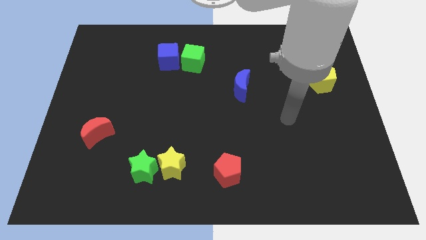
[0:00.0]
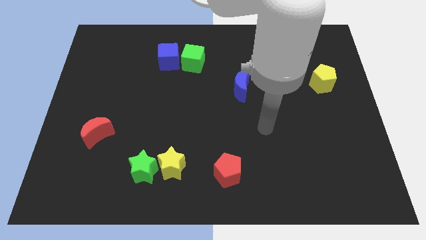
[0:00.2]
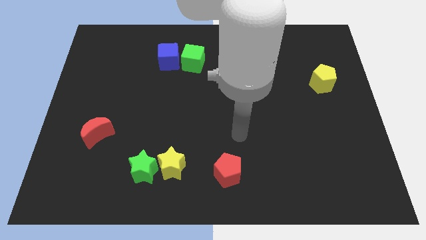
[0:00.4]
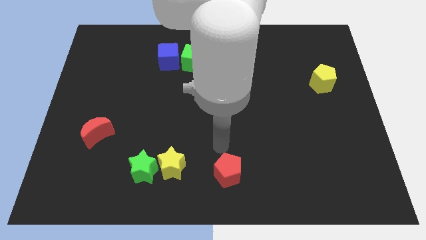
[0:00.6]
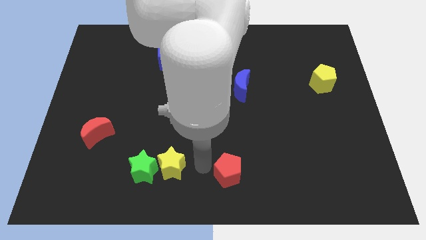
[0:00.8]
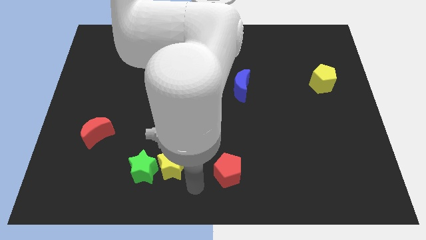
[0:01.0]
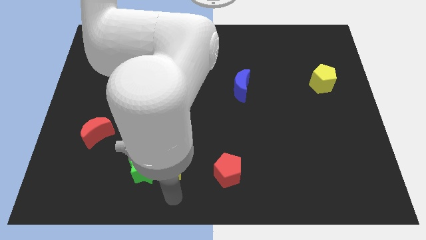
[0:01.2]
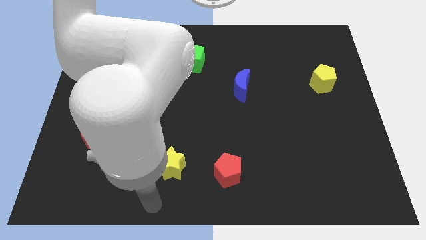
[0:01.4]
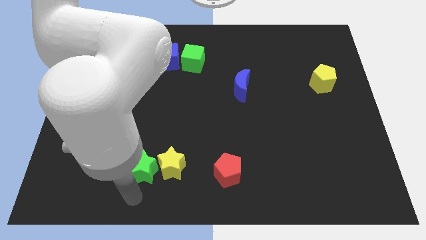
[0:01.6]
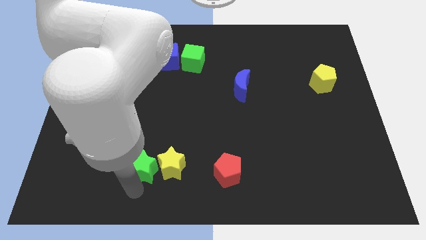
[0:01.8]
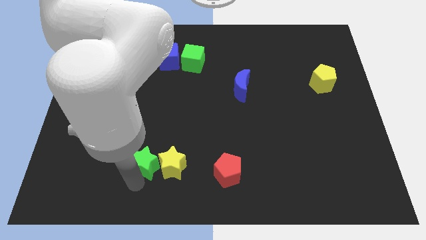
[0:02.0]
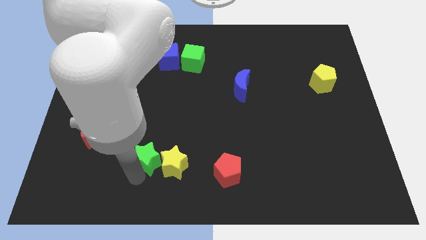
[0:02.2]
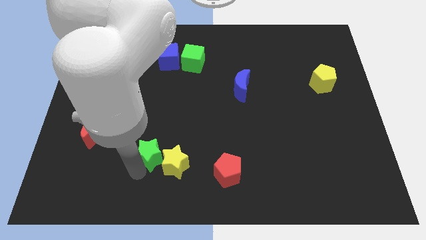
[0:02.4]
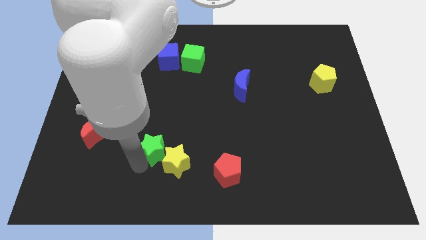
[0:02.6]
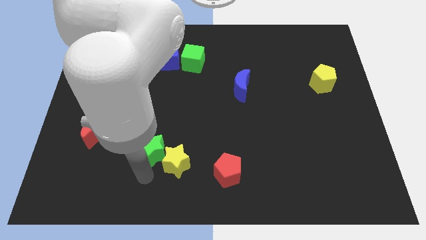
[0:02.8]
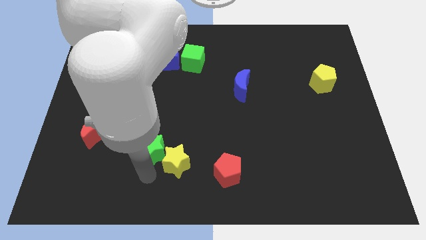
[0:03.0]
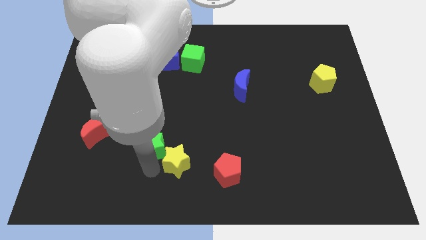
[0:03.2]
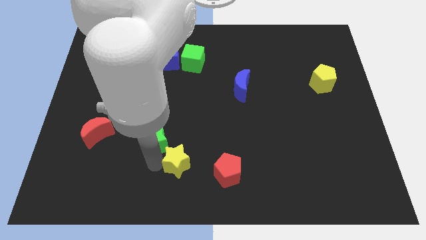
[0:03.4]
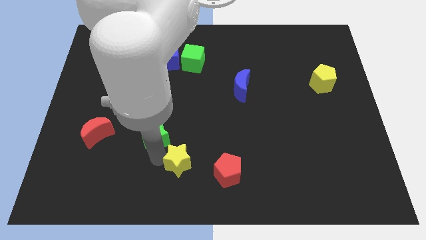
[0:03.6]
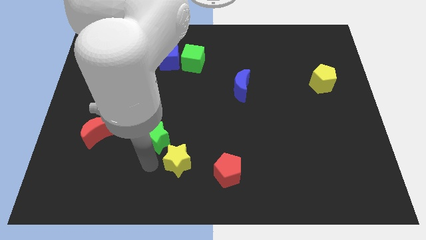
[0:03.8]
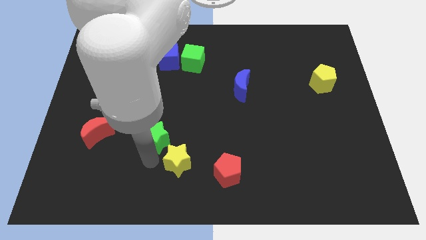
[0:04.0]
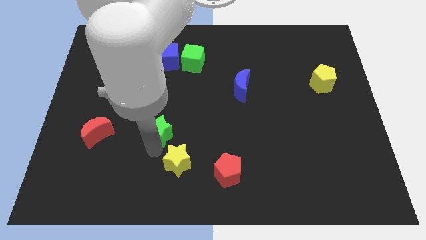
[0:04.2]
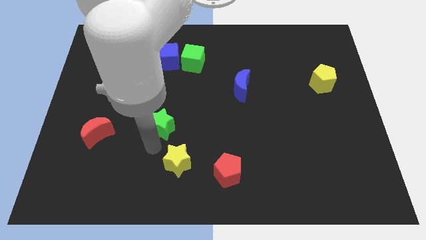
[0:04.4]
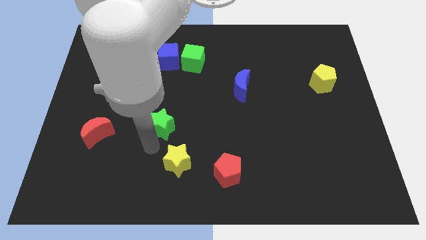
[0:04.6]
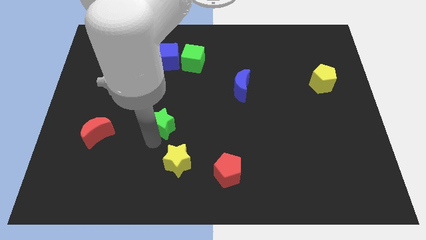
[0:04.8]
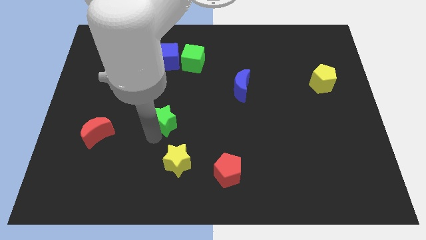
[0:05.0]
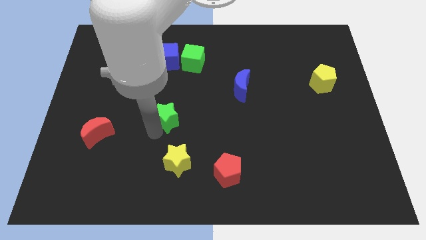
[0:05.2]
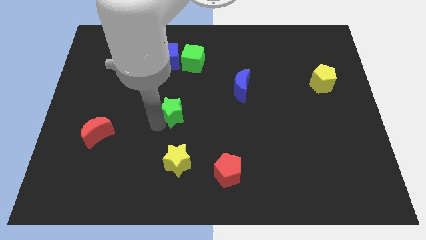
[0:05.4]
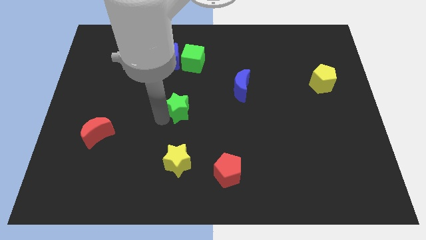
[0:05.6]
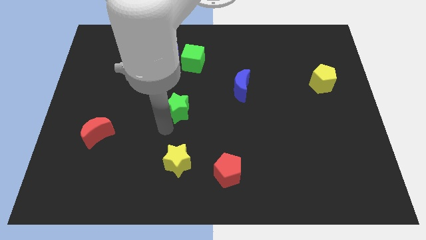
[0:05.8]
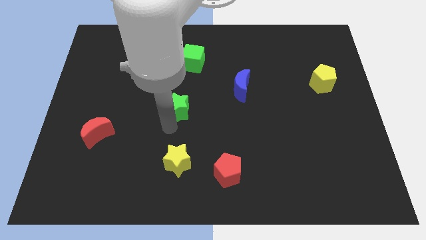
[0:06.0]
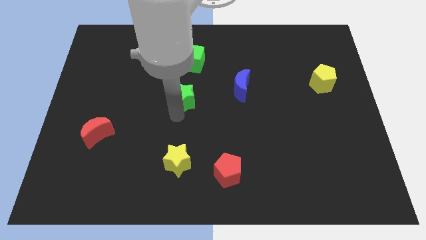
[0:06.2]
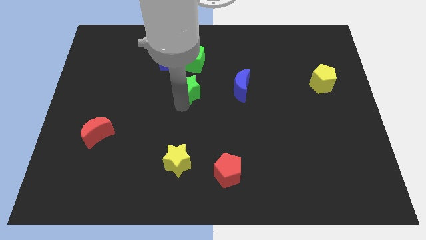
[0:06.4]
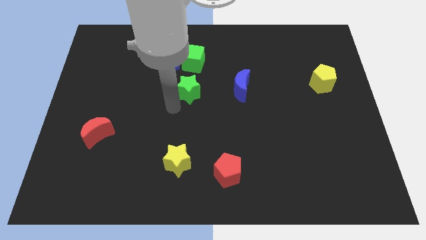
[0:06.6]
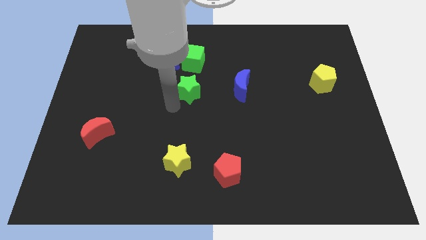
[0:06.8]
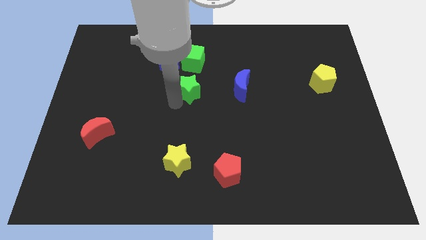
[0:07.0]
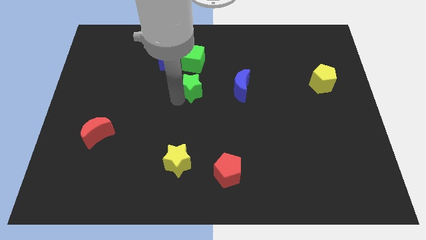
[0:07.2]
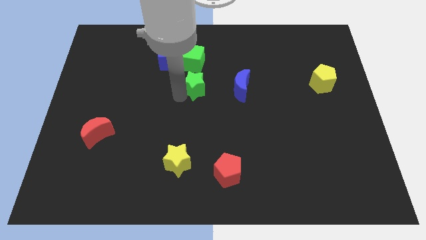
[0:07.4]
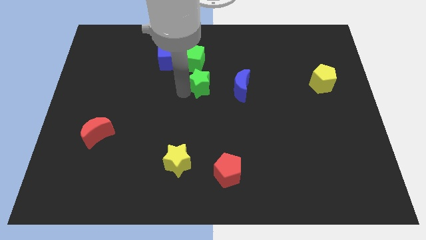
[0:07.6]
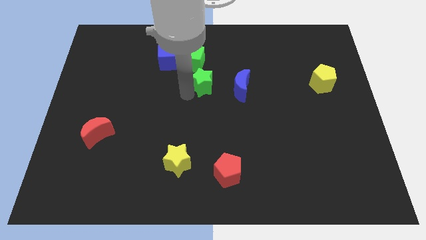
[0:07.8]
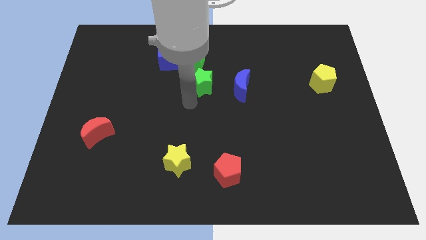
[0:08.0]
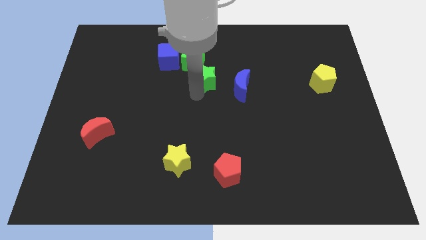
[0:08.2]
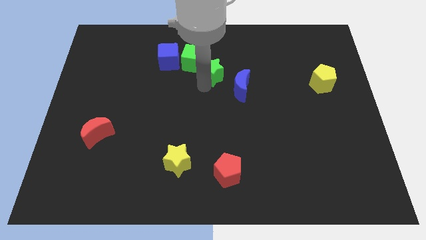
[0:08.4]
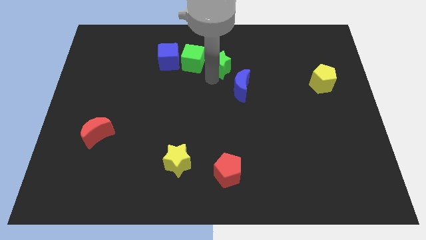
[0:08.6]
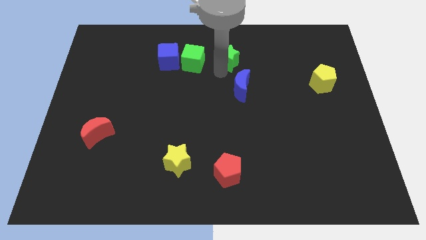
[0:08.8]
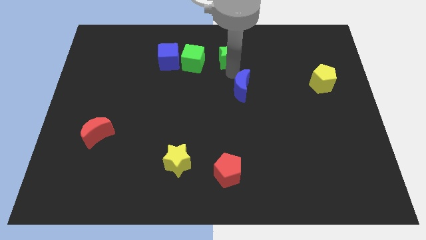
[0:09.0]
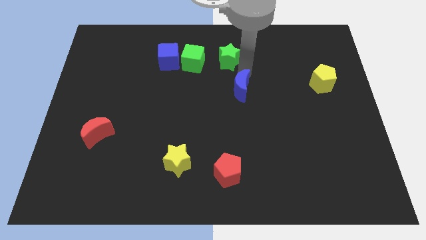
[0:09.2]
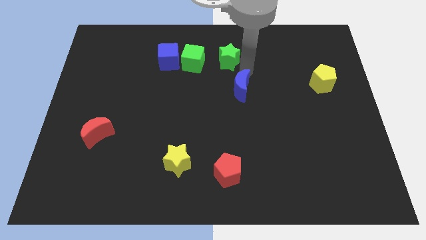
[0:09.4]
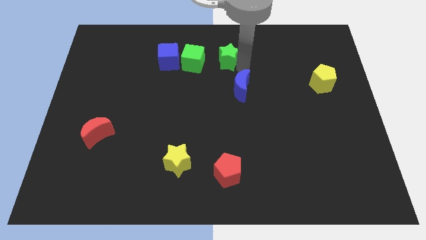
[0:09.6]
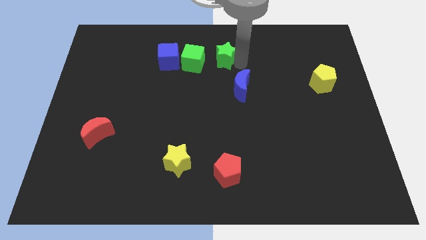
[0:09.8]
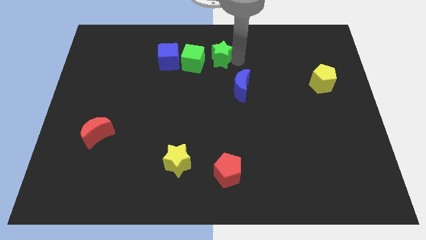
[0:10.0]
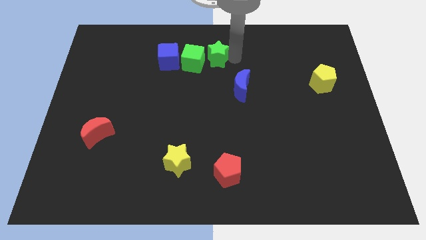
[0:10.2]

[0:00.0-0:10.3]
push the green star to the towards your base

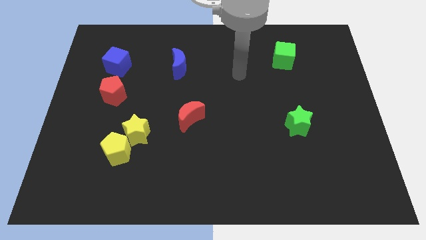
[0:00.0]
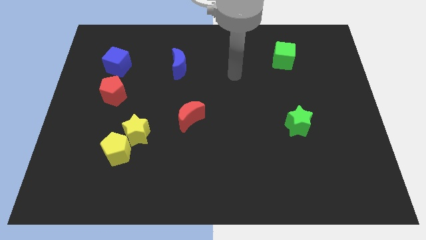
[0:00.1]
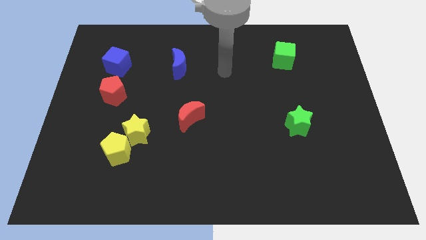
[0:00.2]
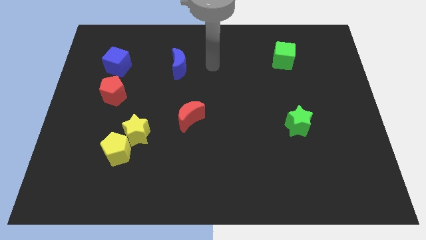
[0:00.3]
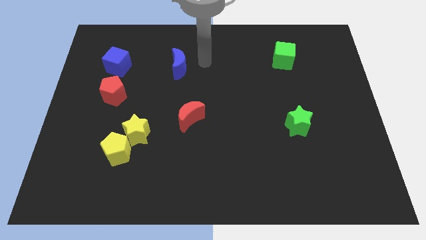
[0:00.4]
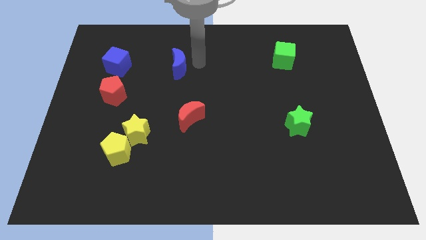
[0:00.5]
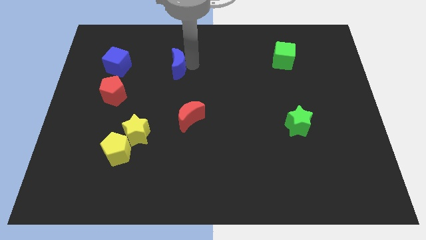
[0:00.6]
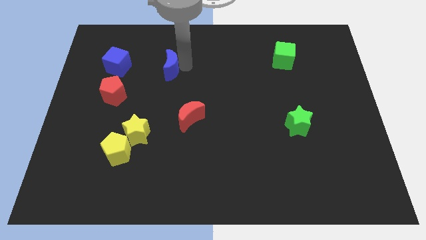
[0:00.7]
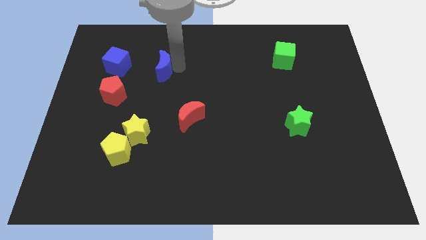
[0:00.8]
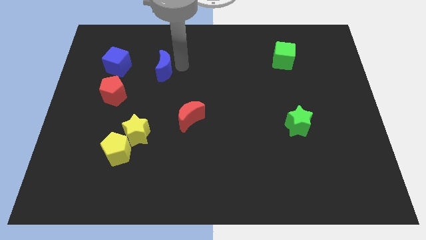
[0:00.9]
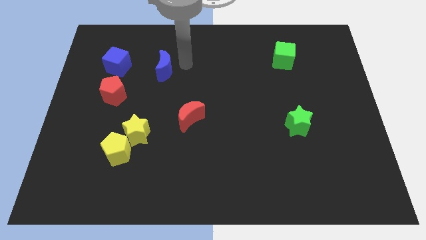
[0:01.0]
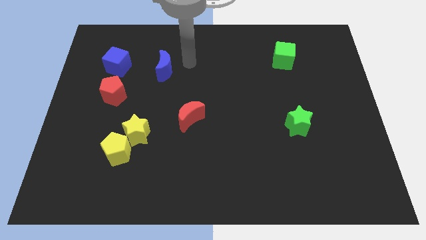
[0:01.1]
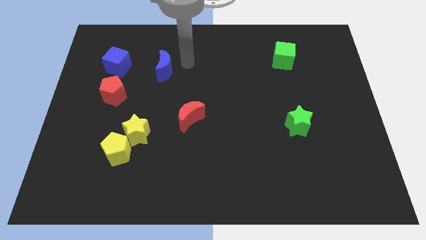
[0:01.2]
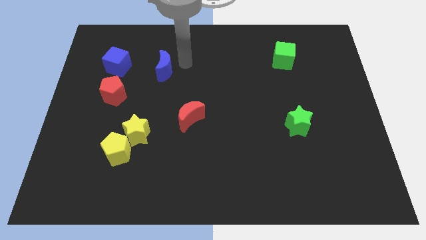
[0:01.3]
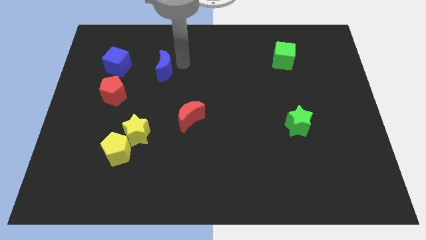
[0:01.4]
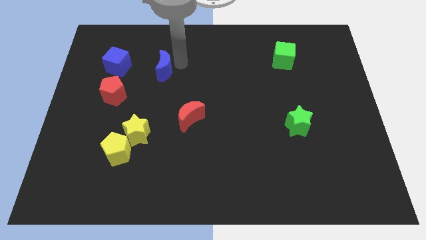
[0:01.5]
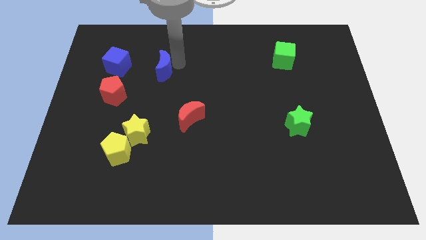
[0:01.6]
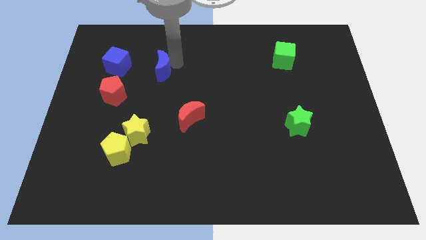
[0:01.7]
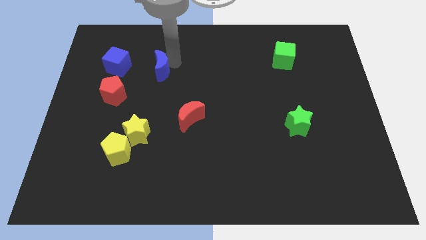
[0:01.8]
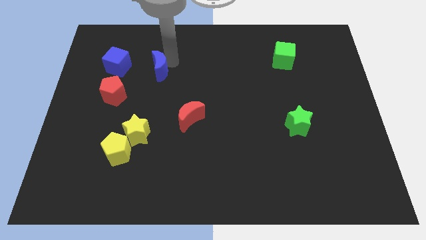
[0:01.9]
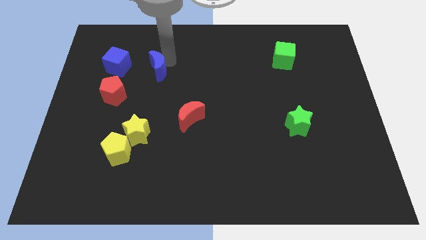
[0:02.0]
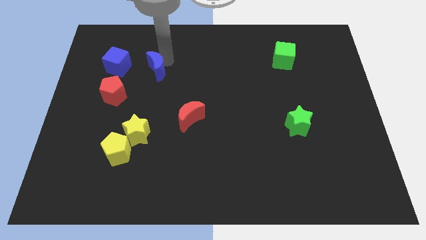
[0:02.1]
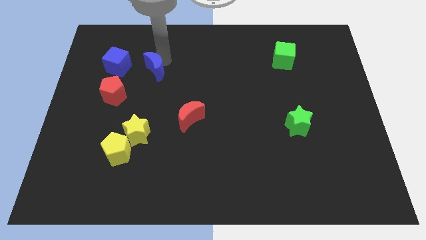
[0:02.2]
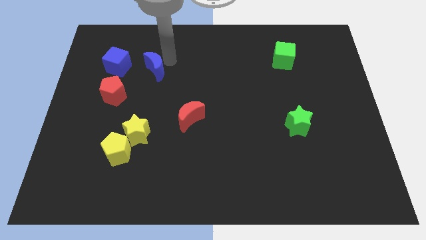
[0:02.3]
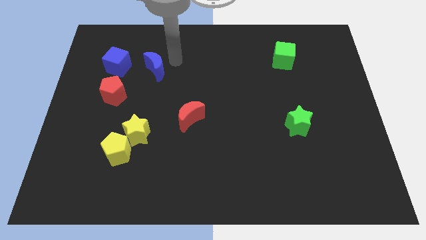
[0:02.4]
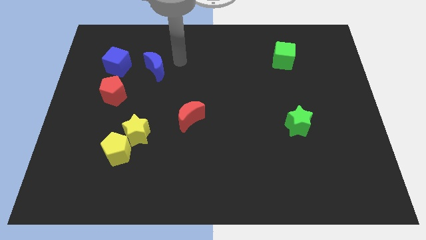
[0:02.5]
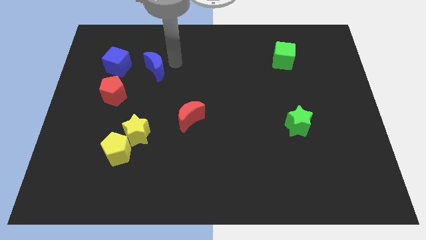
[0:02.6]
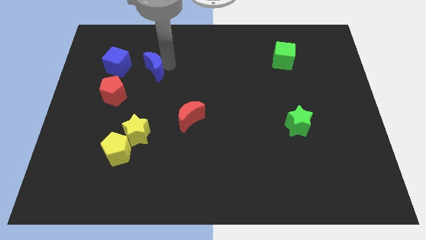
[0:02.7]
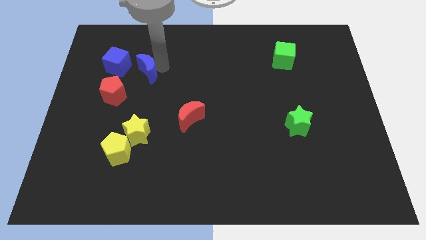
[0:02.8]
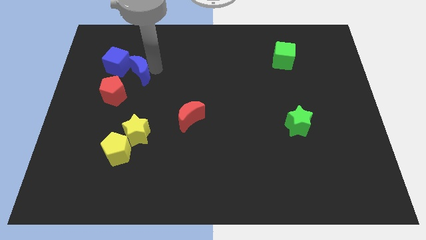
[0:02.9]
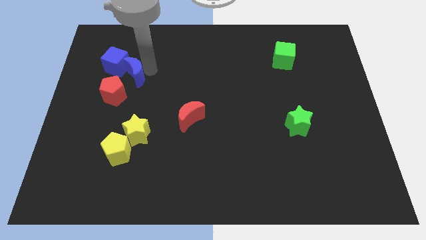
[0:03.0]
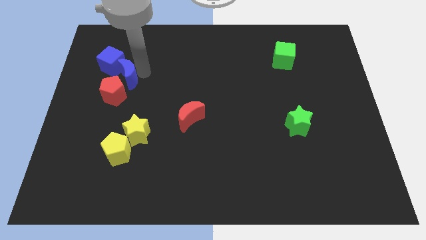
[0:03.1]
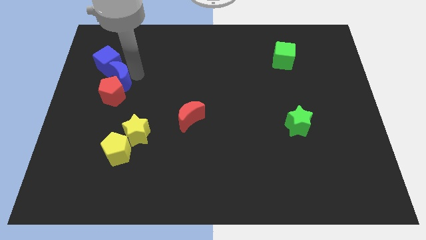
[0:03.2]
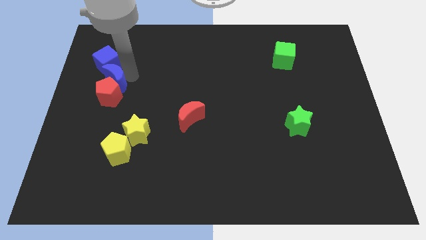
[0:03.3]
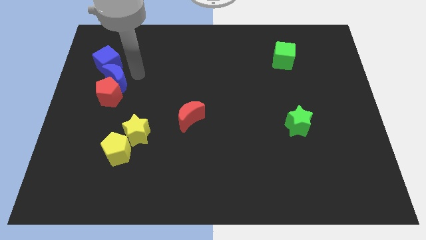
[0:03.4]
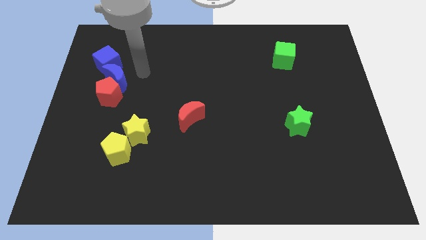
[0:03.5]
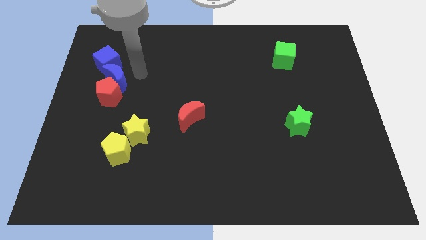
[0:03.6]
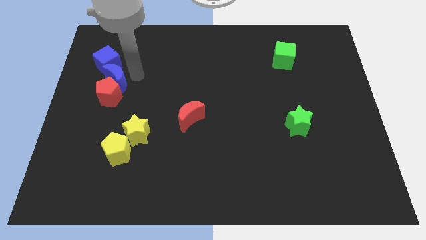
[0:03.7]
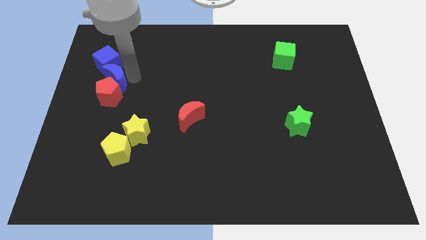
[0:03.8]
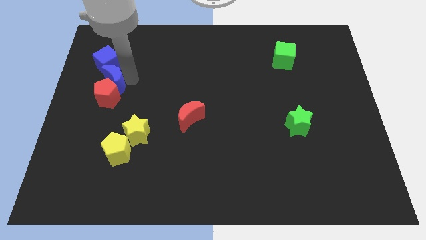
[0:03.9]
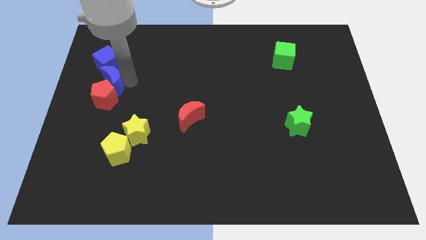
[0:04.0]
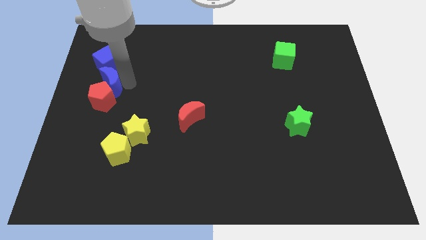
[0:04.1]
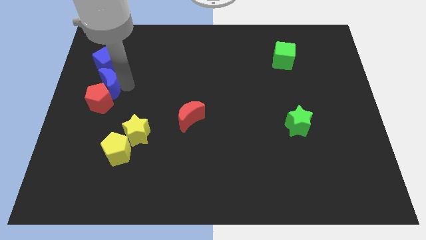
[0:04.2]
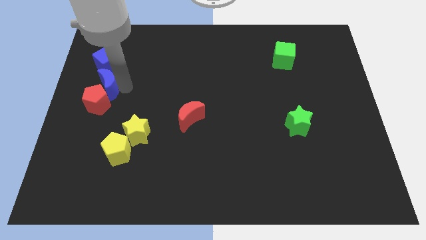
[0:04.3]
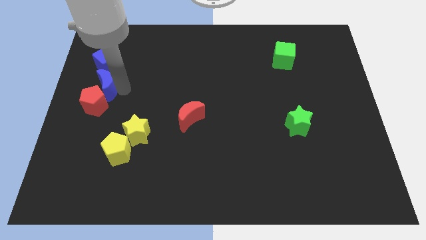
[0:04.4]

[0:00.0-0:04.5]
push the blue moon to the left side of the board
